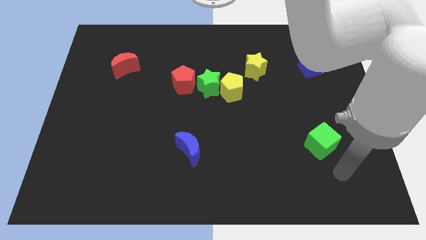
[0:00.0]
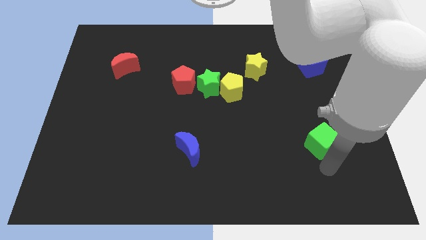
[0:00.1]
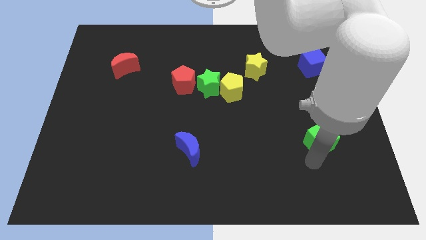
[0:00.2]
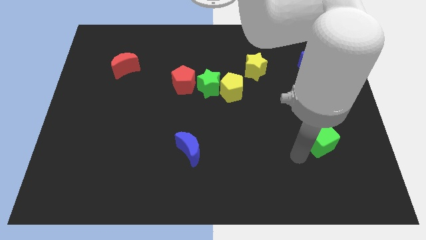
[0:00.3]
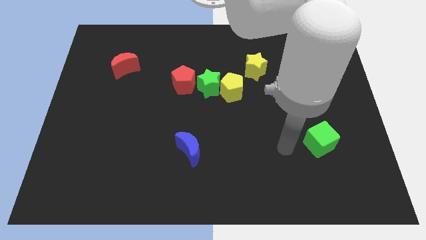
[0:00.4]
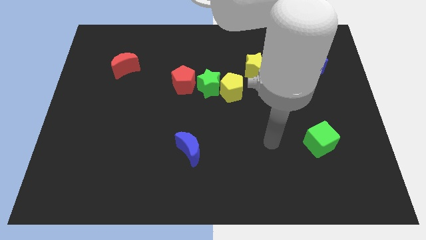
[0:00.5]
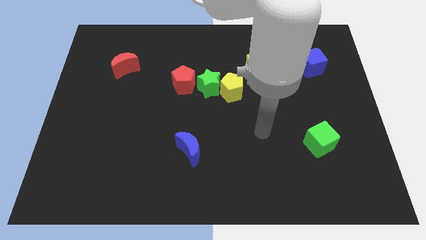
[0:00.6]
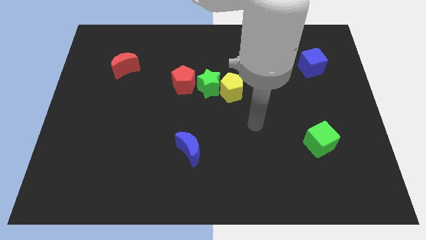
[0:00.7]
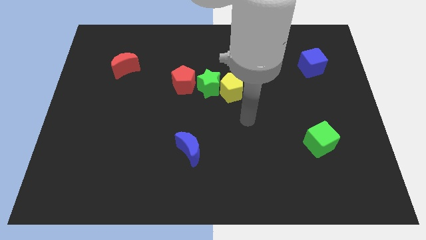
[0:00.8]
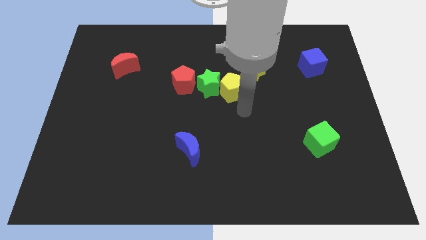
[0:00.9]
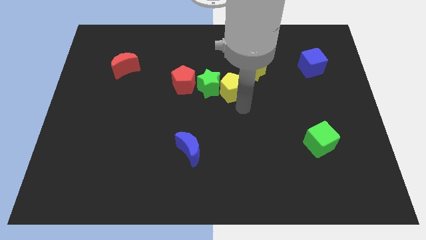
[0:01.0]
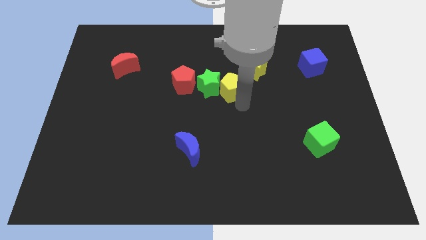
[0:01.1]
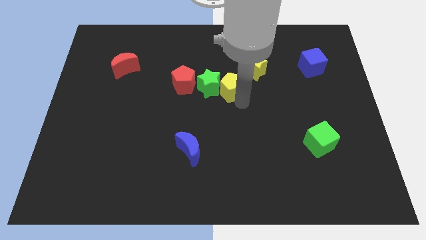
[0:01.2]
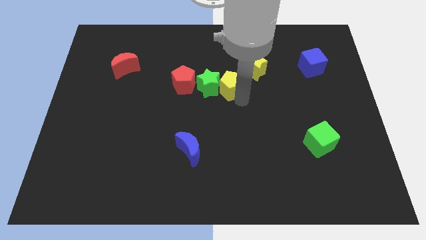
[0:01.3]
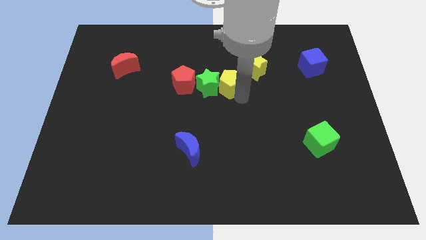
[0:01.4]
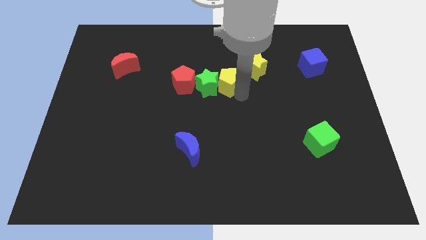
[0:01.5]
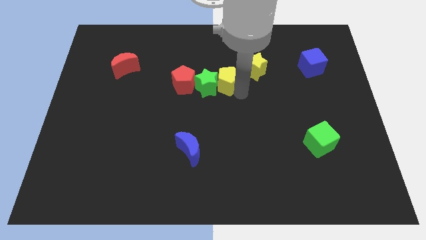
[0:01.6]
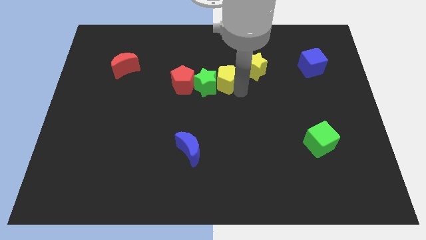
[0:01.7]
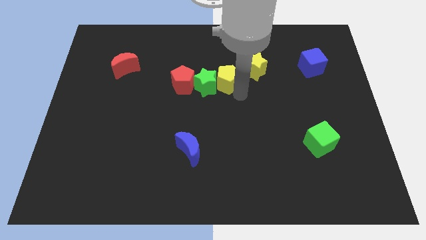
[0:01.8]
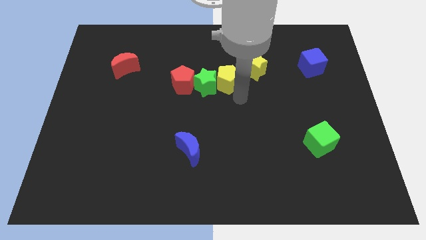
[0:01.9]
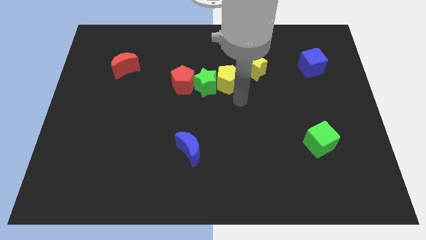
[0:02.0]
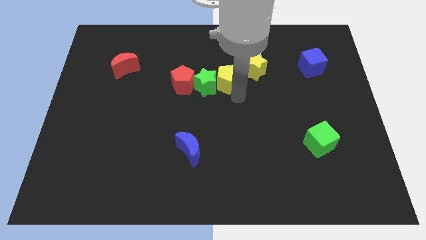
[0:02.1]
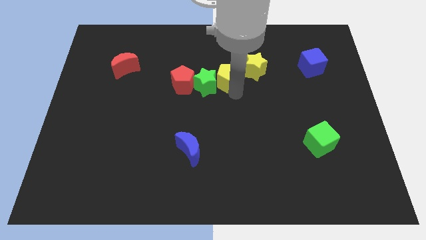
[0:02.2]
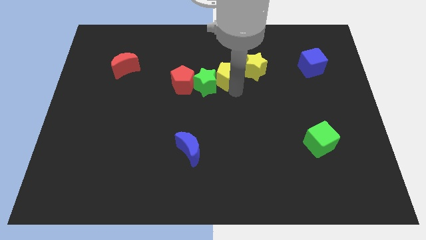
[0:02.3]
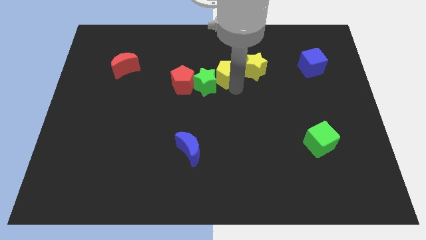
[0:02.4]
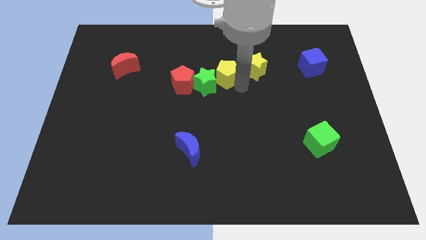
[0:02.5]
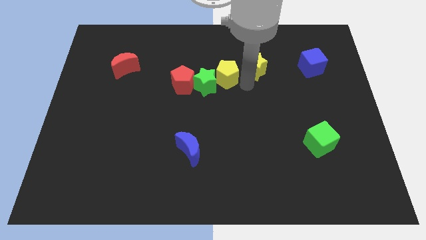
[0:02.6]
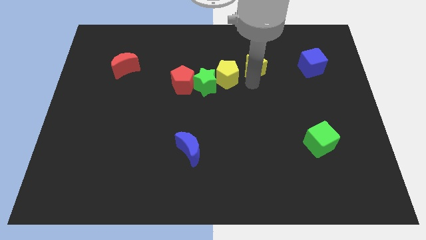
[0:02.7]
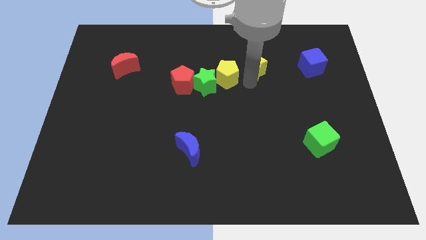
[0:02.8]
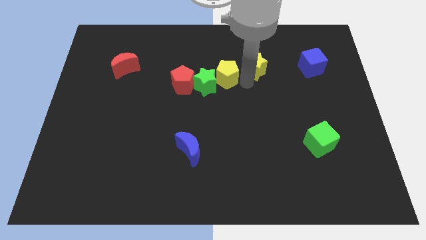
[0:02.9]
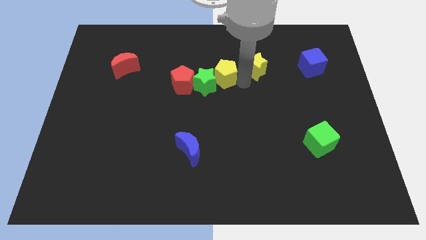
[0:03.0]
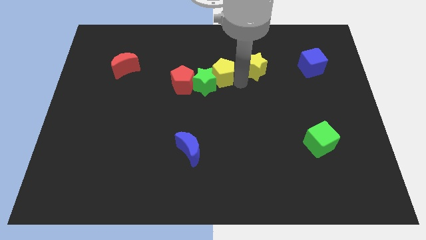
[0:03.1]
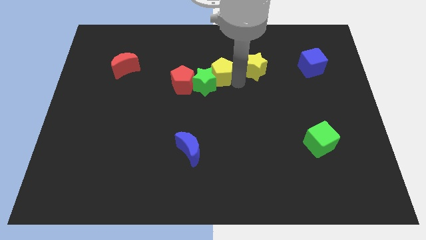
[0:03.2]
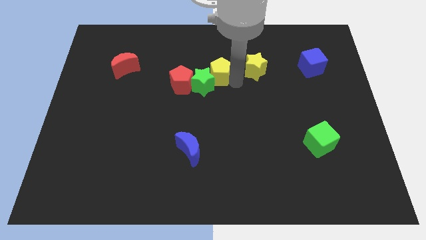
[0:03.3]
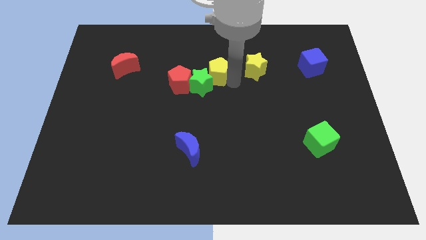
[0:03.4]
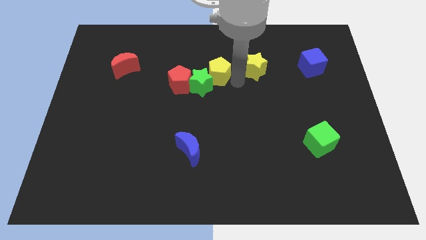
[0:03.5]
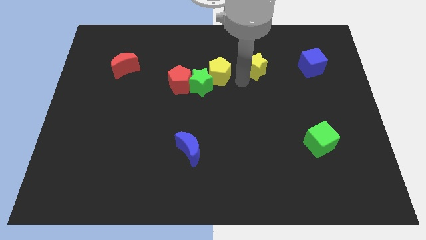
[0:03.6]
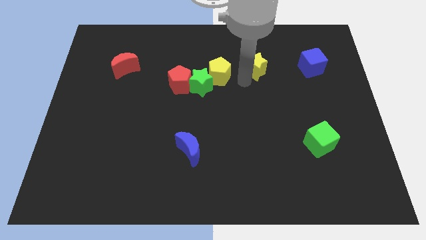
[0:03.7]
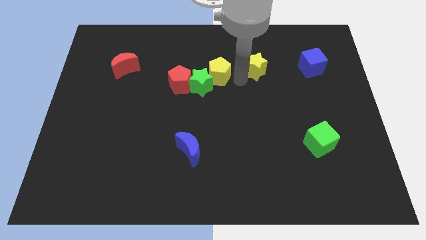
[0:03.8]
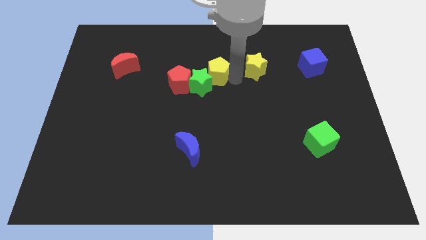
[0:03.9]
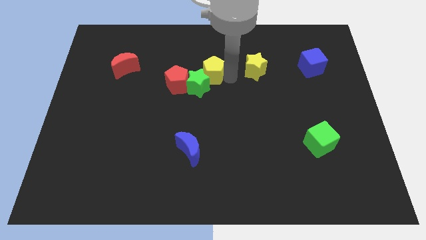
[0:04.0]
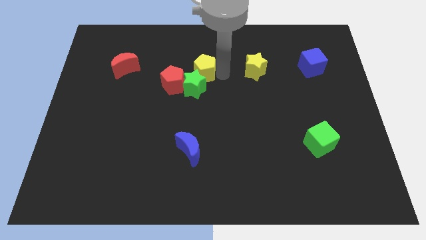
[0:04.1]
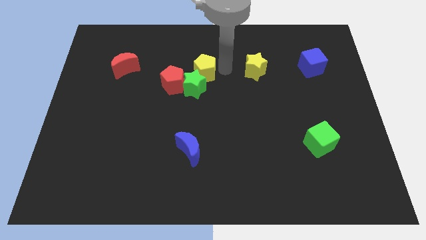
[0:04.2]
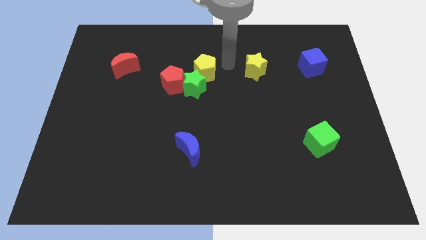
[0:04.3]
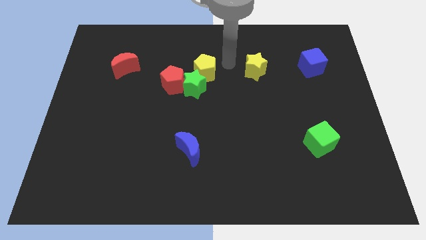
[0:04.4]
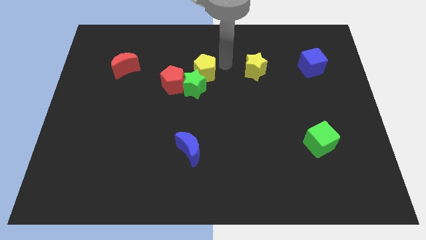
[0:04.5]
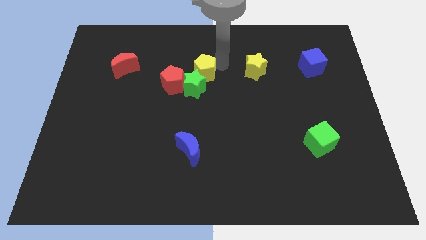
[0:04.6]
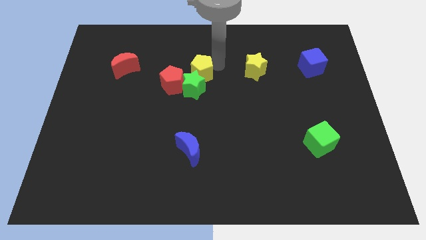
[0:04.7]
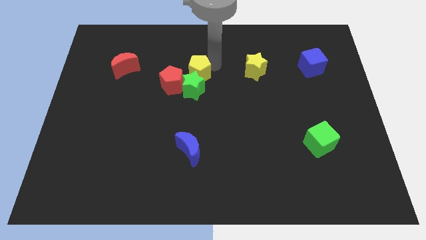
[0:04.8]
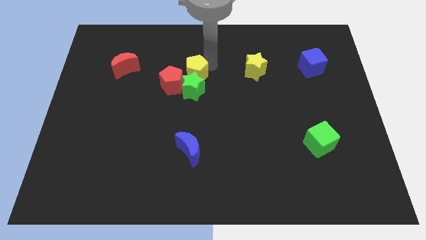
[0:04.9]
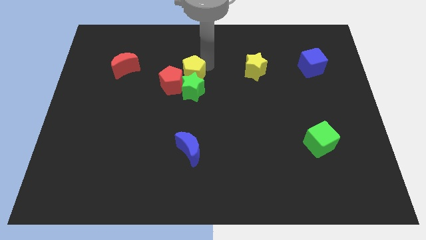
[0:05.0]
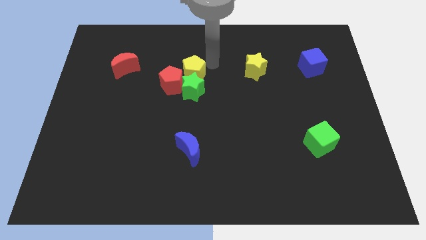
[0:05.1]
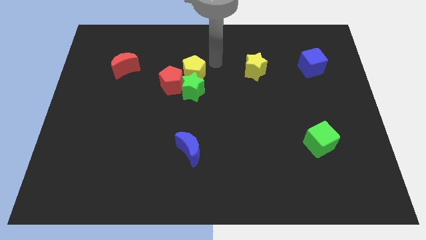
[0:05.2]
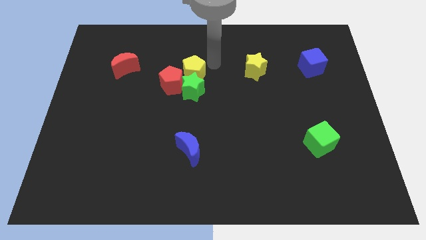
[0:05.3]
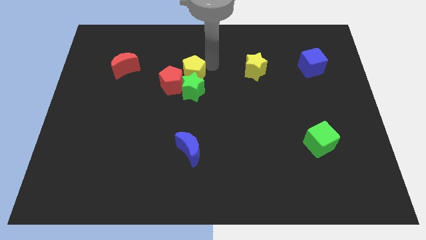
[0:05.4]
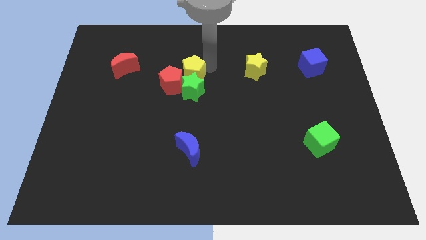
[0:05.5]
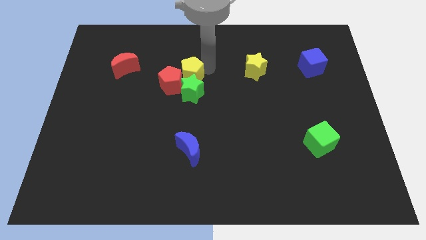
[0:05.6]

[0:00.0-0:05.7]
slide the yellow pentagon towards the red pentagon
